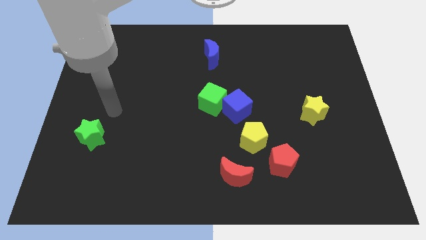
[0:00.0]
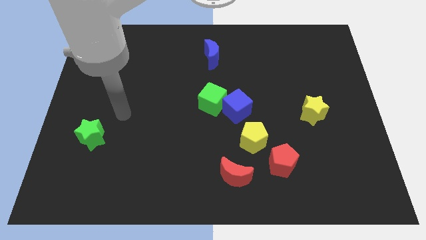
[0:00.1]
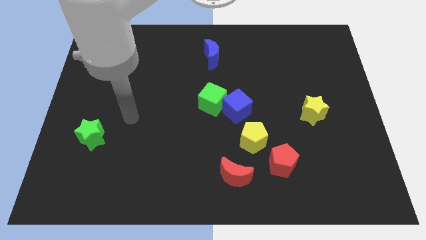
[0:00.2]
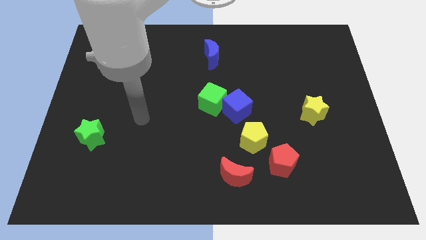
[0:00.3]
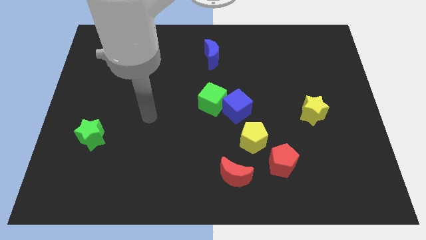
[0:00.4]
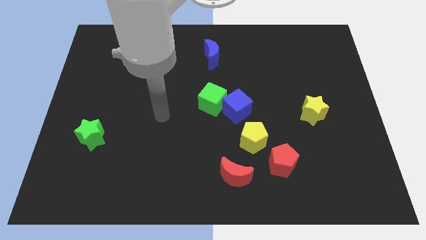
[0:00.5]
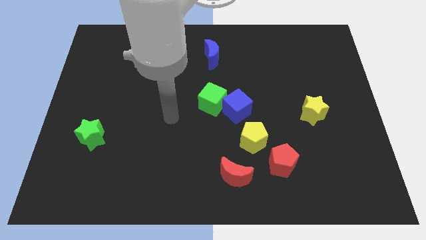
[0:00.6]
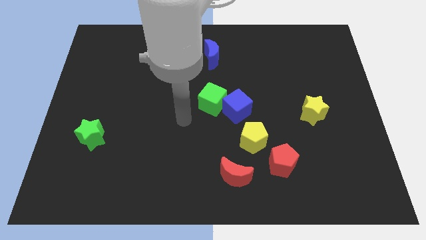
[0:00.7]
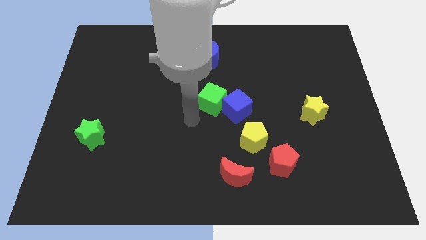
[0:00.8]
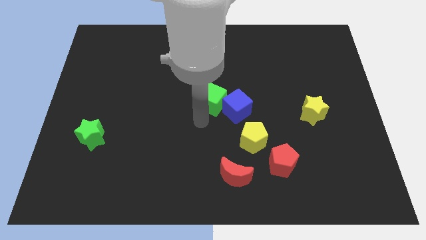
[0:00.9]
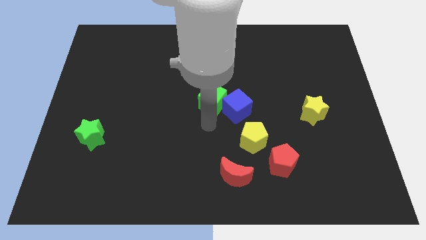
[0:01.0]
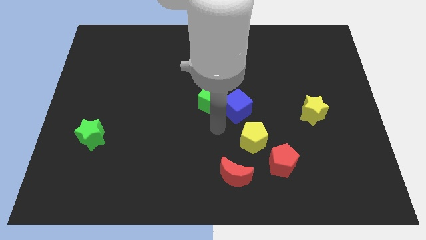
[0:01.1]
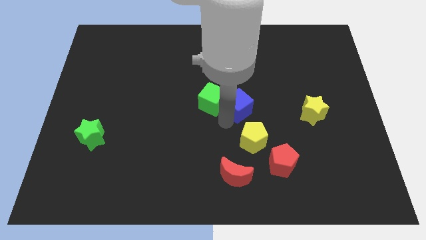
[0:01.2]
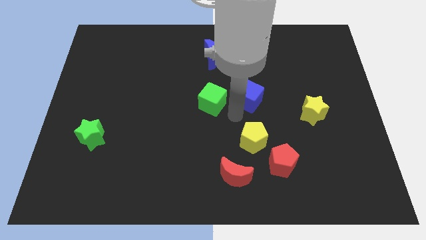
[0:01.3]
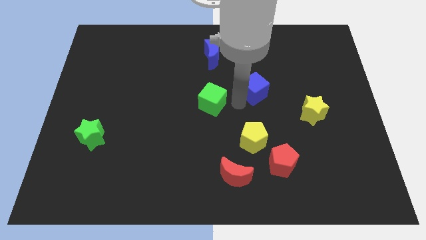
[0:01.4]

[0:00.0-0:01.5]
separate the green cube from the blue cube

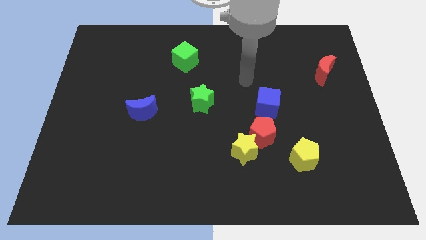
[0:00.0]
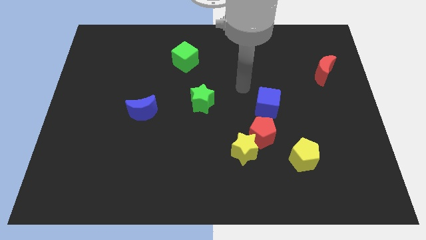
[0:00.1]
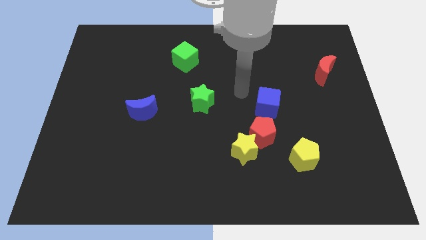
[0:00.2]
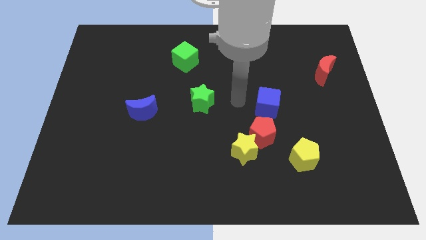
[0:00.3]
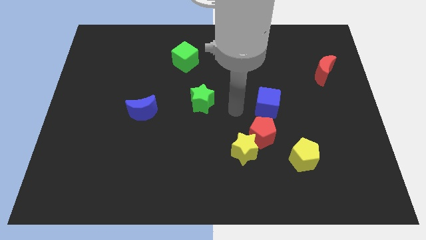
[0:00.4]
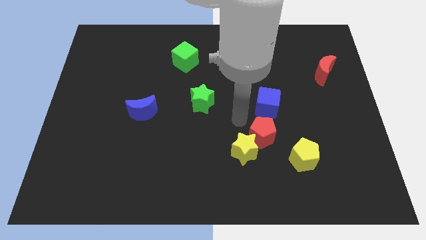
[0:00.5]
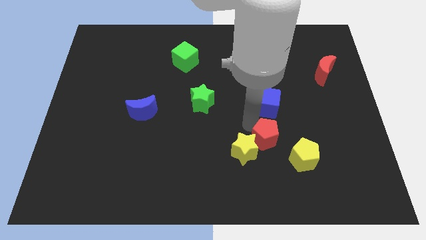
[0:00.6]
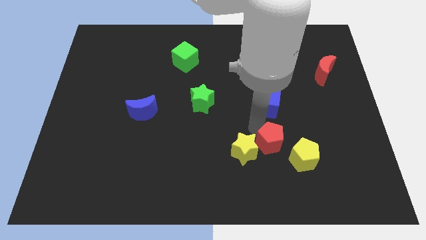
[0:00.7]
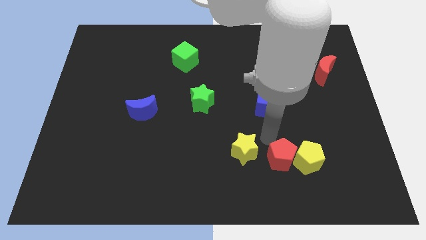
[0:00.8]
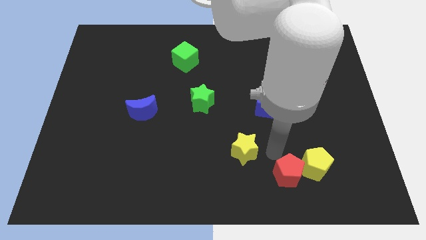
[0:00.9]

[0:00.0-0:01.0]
pull the yellow star apart from the red pentagon

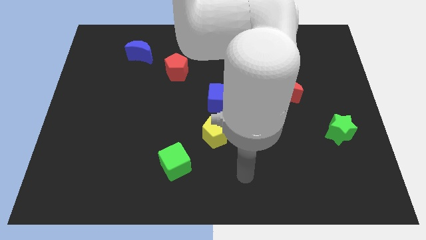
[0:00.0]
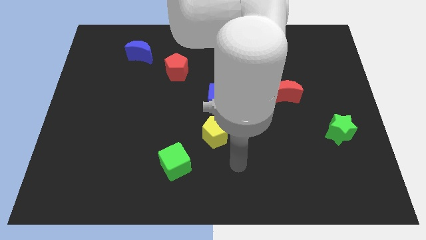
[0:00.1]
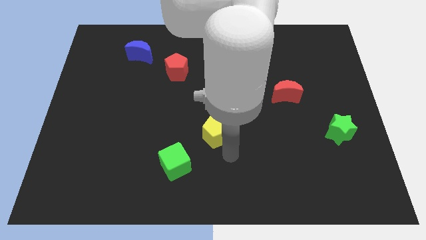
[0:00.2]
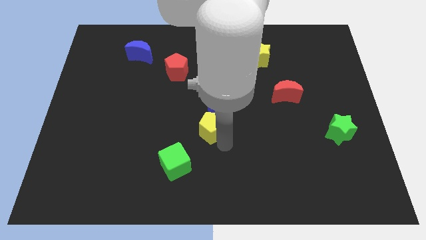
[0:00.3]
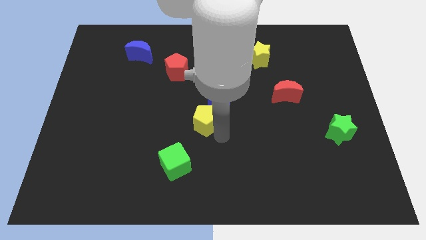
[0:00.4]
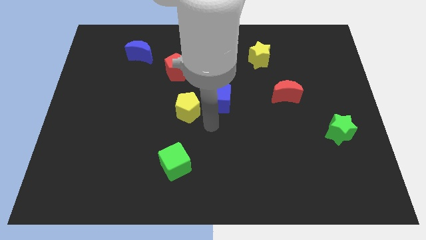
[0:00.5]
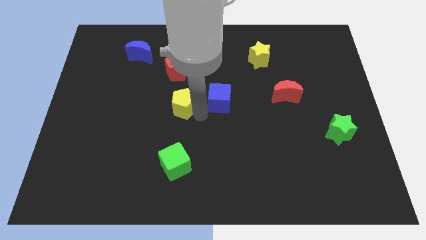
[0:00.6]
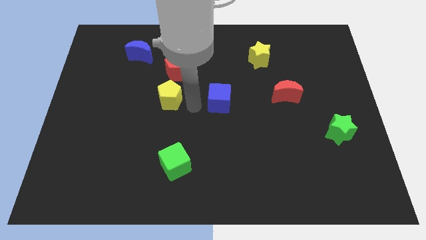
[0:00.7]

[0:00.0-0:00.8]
pull the blue cube apart from the yellow pentagon

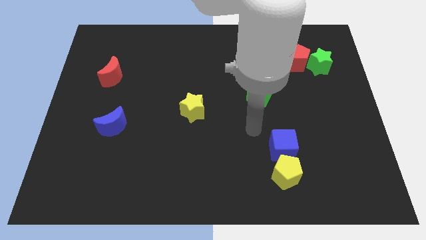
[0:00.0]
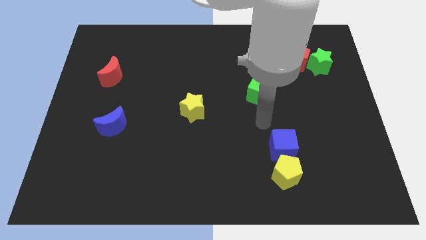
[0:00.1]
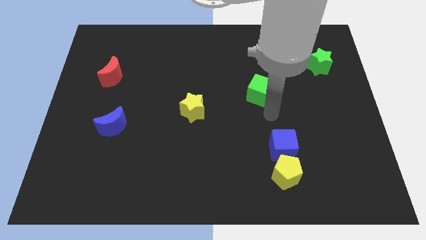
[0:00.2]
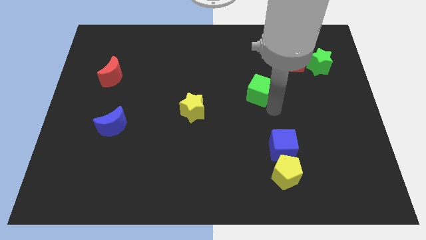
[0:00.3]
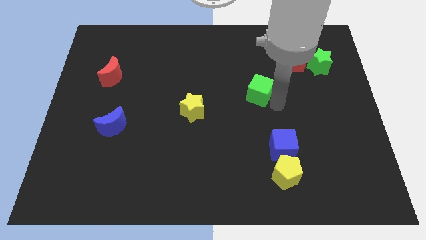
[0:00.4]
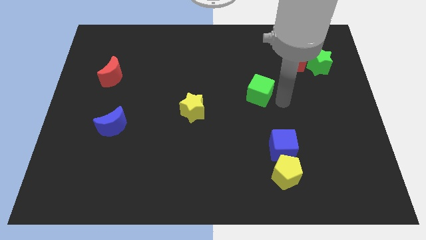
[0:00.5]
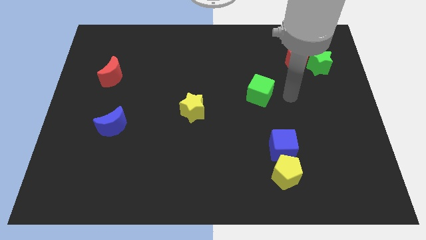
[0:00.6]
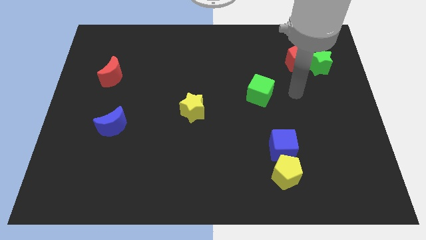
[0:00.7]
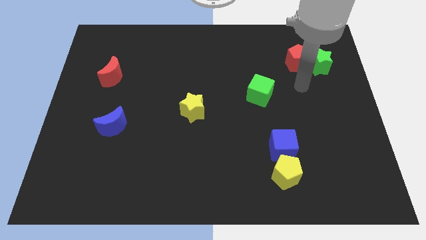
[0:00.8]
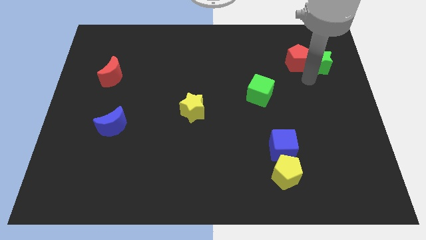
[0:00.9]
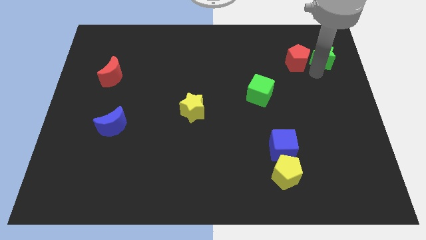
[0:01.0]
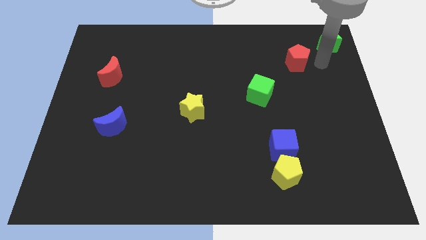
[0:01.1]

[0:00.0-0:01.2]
pull the red pentagon apart from the green star

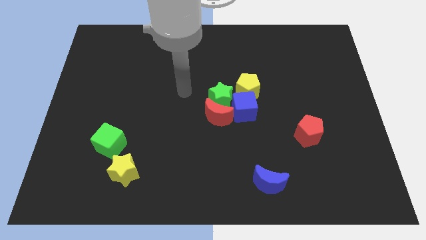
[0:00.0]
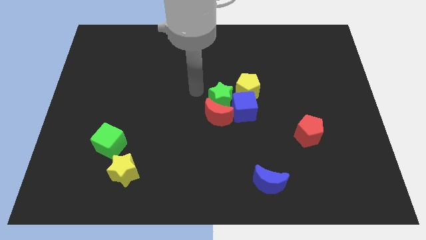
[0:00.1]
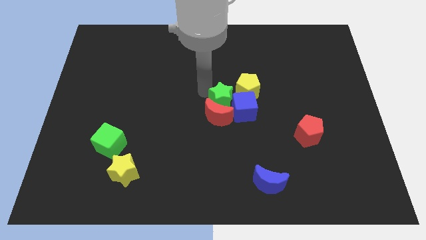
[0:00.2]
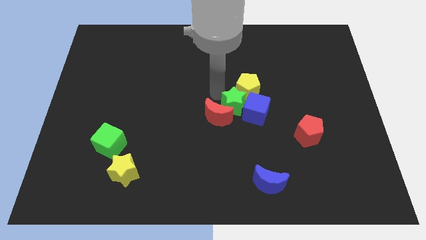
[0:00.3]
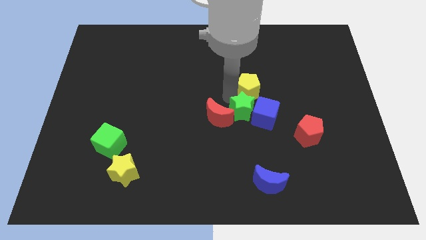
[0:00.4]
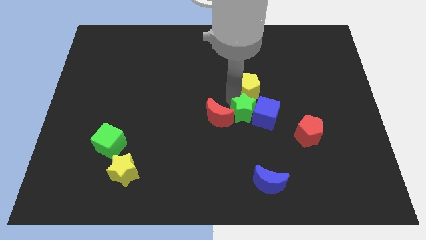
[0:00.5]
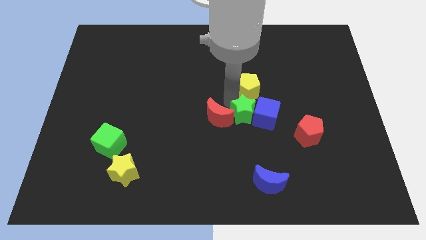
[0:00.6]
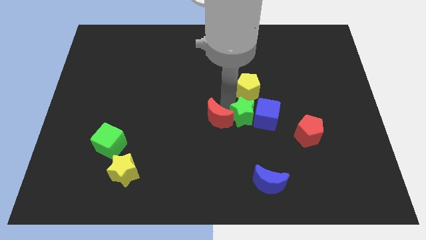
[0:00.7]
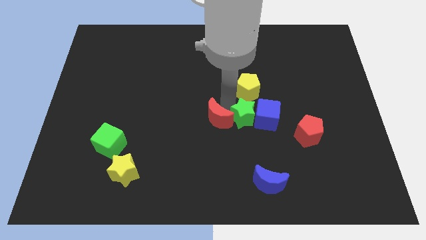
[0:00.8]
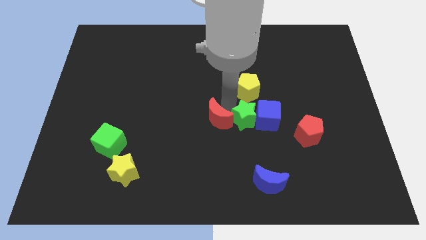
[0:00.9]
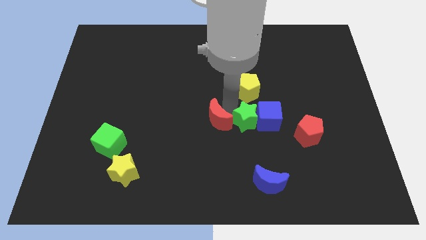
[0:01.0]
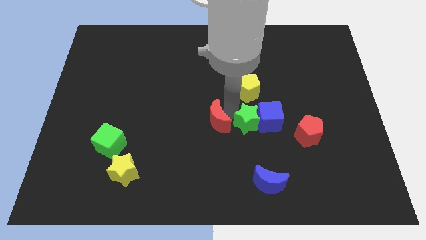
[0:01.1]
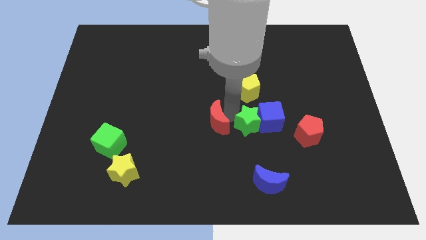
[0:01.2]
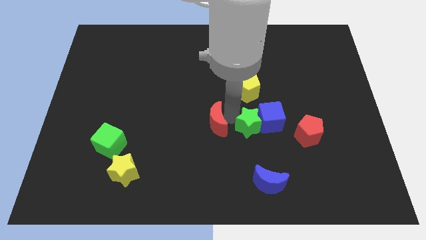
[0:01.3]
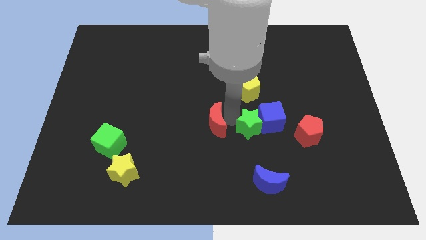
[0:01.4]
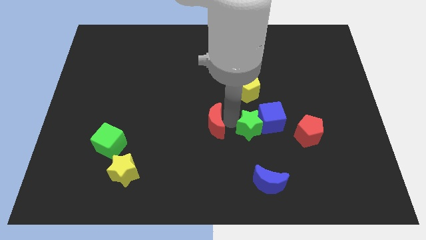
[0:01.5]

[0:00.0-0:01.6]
separate the red moon from the green star and blue cube

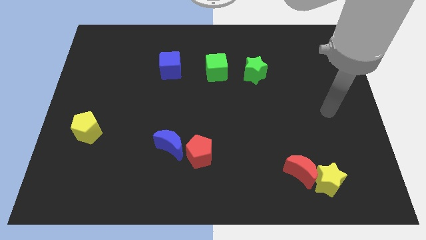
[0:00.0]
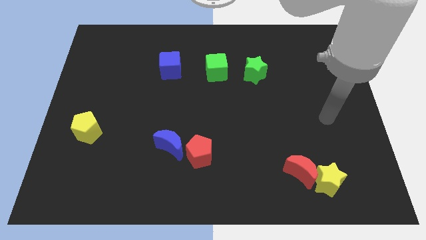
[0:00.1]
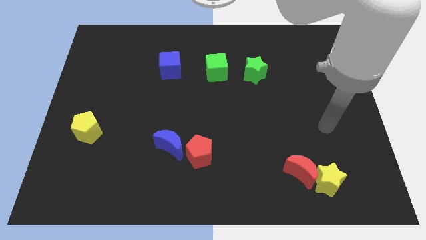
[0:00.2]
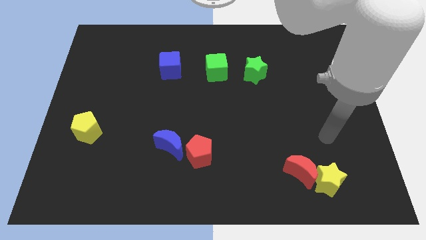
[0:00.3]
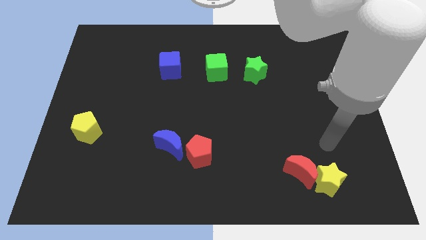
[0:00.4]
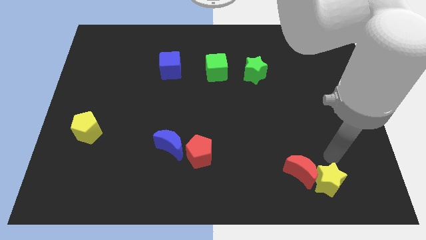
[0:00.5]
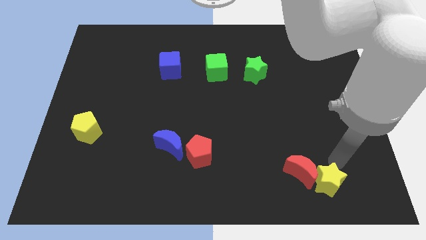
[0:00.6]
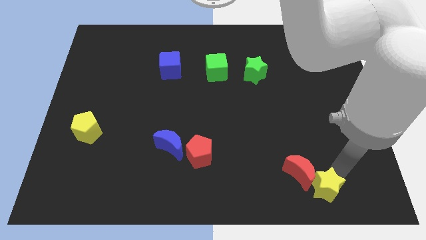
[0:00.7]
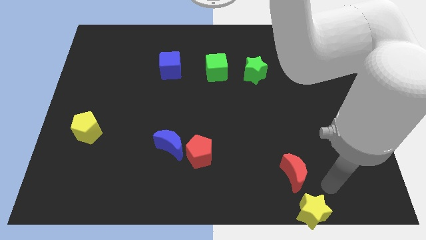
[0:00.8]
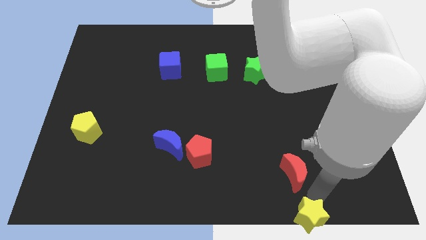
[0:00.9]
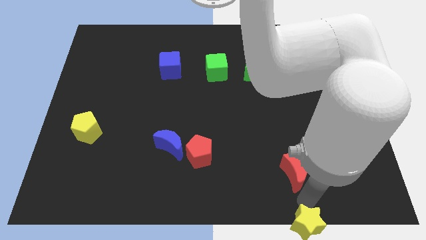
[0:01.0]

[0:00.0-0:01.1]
move the red moon away from the yellow star

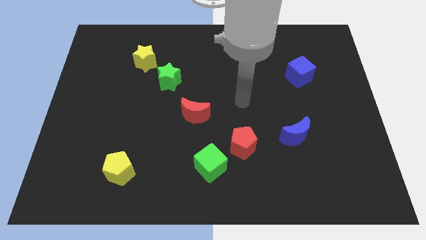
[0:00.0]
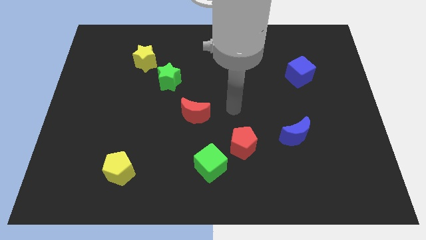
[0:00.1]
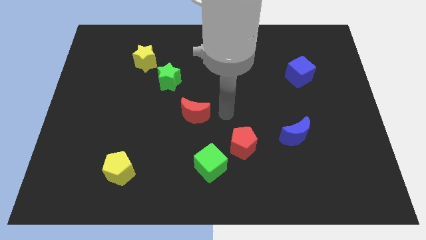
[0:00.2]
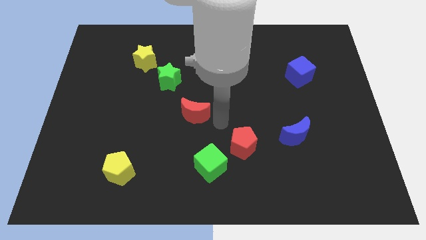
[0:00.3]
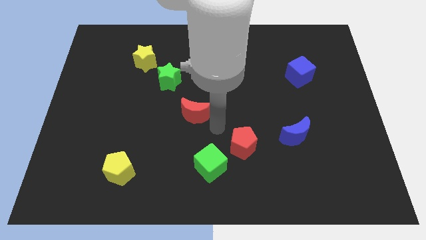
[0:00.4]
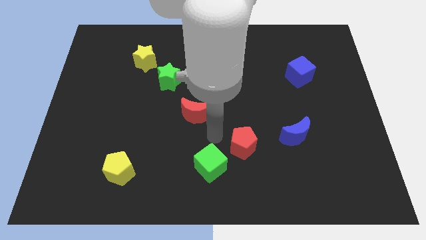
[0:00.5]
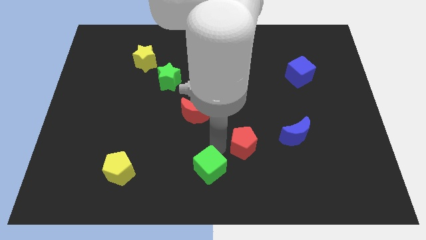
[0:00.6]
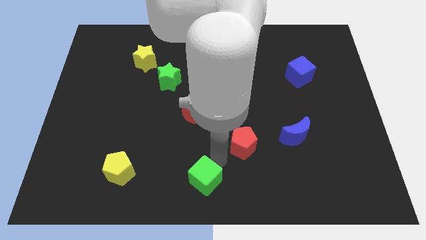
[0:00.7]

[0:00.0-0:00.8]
move the red pentagon away from the green cube

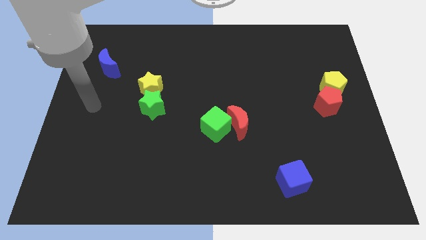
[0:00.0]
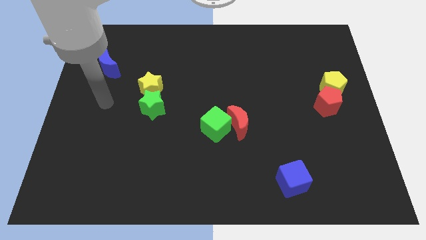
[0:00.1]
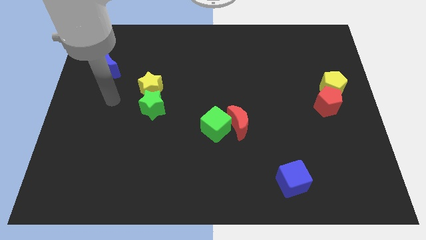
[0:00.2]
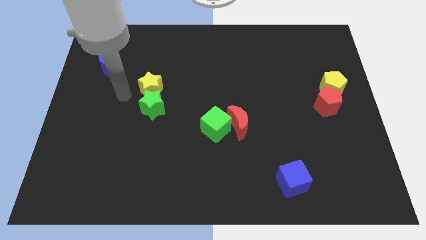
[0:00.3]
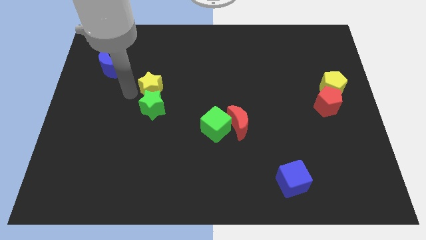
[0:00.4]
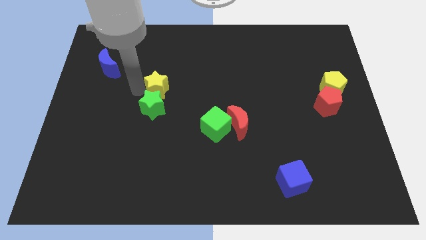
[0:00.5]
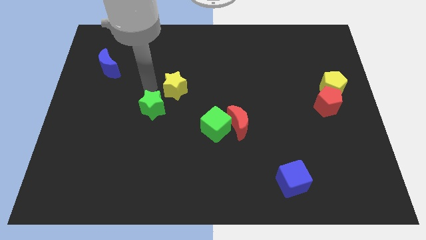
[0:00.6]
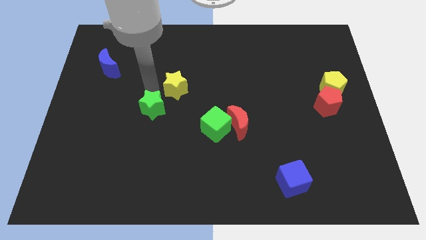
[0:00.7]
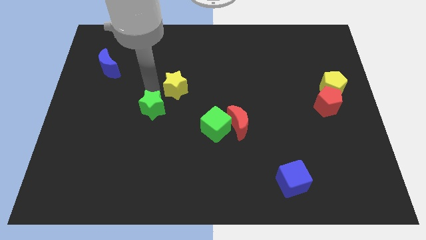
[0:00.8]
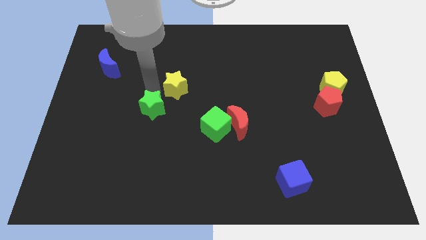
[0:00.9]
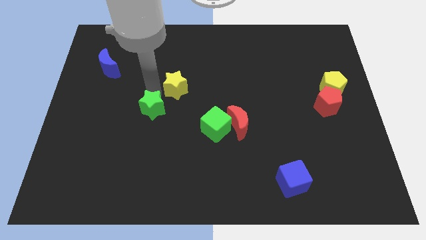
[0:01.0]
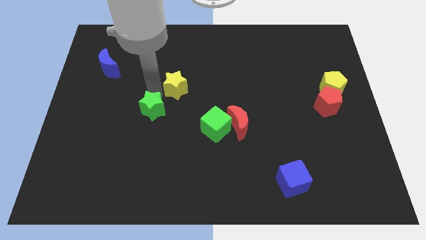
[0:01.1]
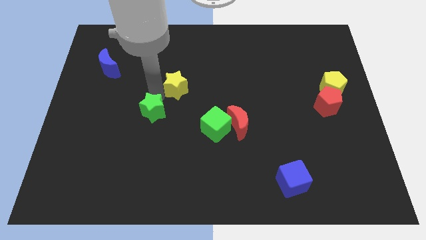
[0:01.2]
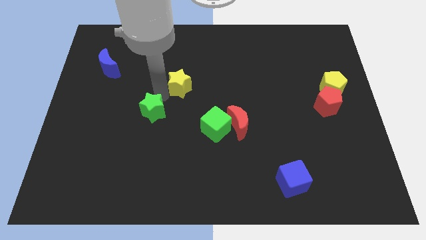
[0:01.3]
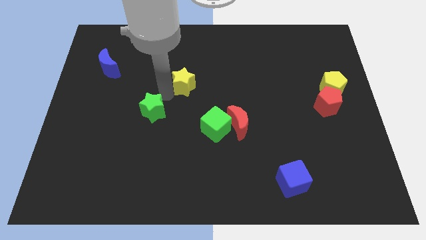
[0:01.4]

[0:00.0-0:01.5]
separate the green star from the yellow star
